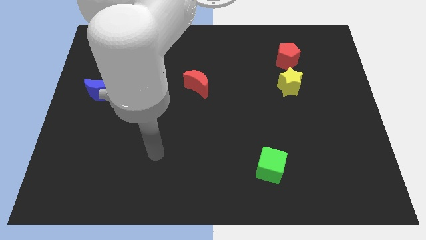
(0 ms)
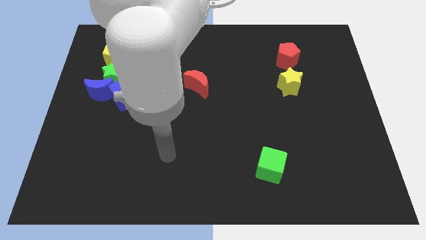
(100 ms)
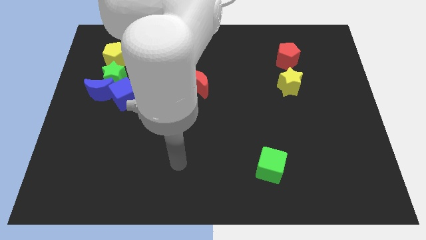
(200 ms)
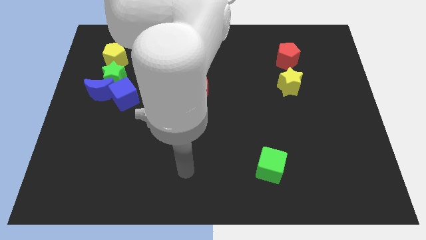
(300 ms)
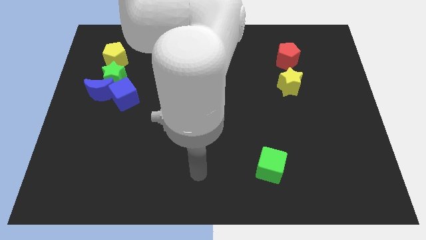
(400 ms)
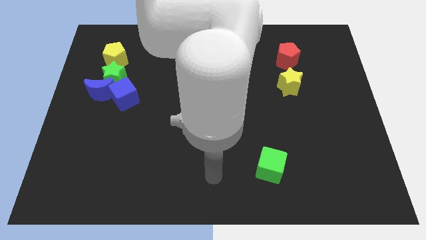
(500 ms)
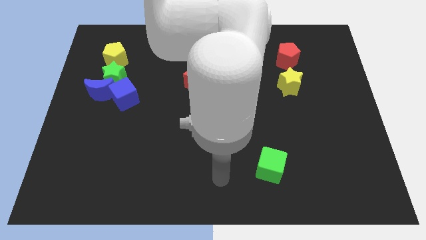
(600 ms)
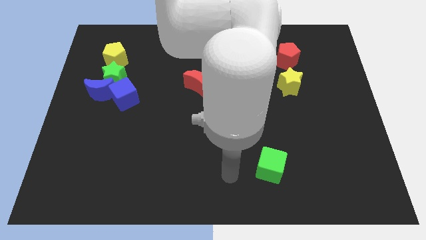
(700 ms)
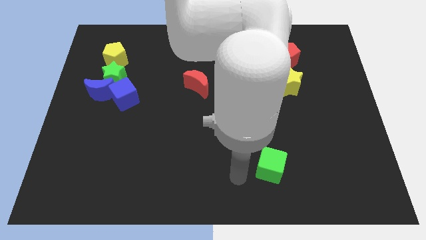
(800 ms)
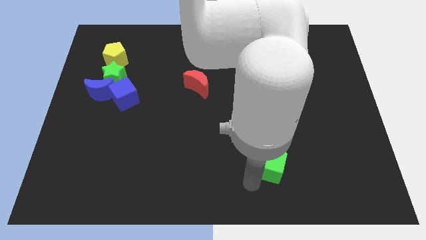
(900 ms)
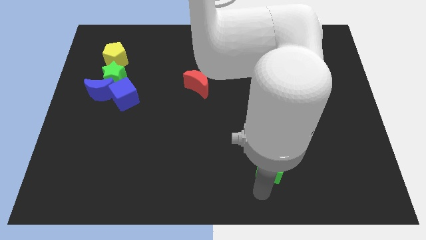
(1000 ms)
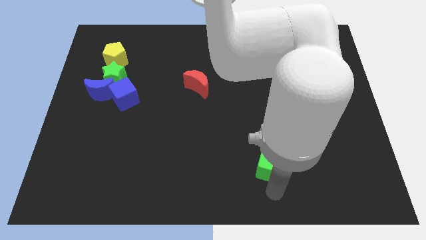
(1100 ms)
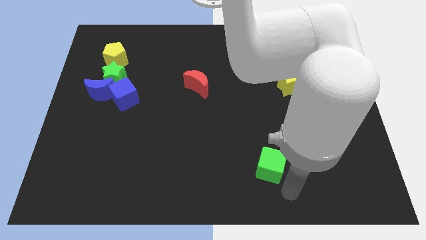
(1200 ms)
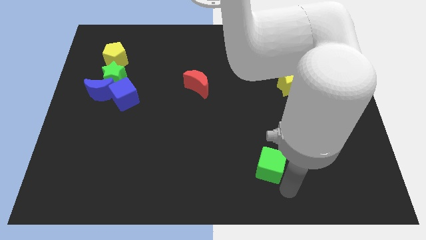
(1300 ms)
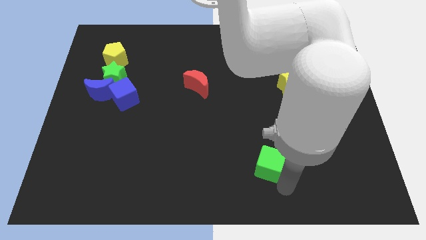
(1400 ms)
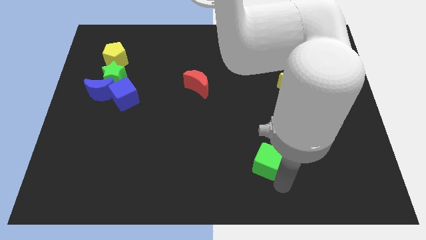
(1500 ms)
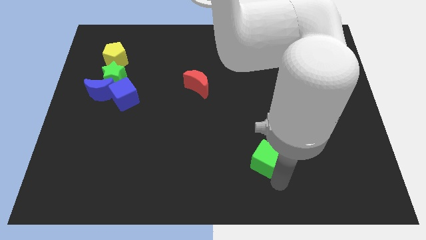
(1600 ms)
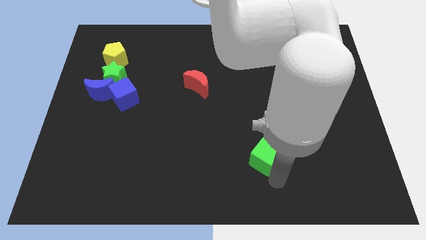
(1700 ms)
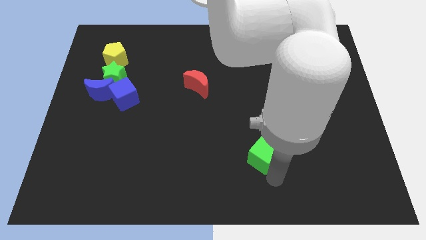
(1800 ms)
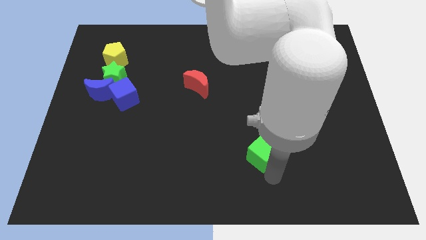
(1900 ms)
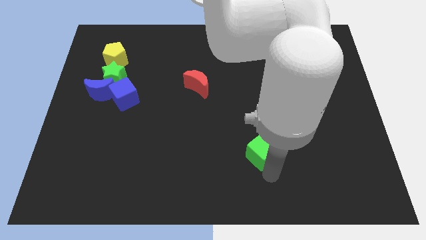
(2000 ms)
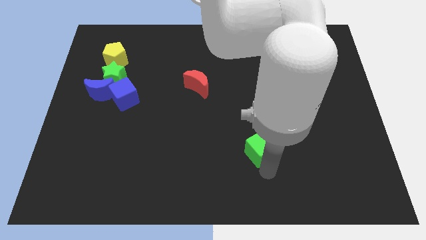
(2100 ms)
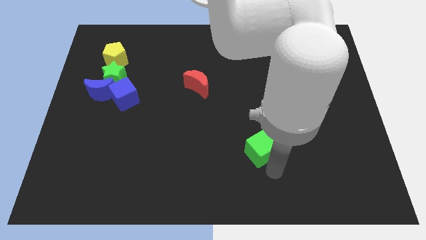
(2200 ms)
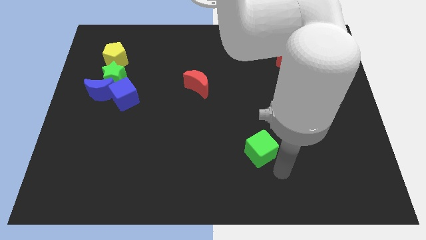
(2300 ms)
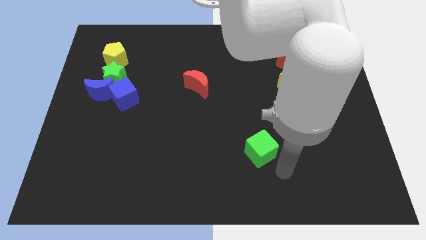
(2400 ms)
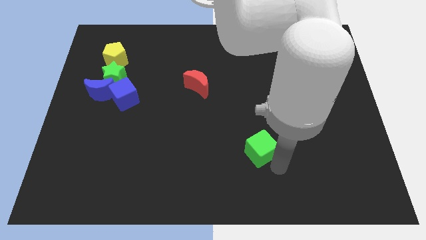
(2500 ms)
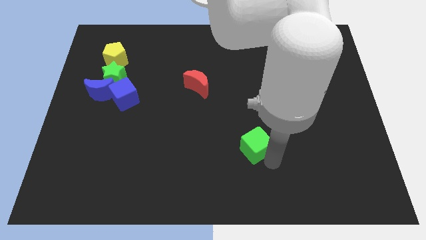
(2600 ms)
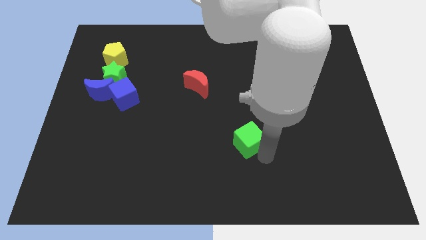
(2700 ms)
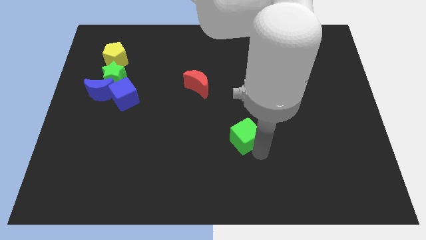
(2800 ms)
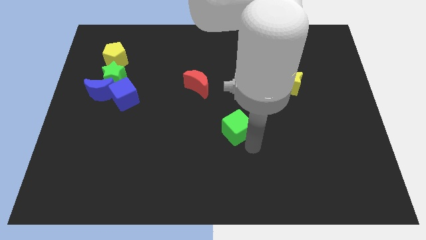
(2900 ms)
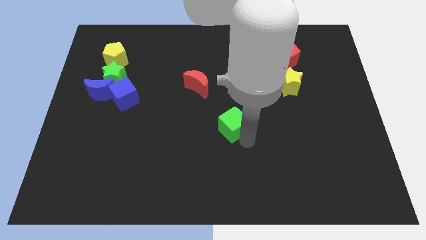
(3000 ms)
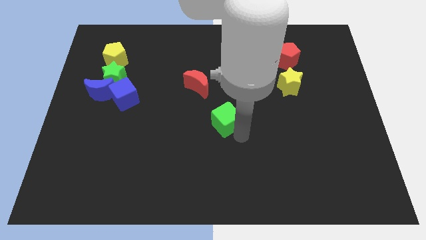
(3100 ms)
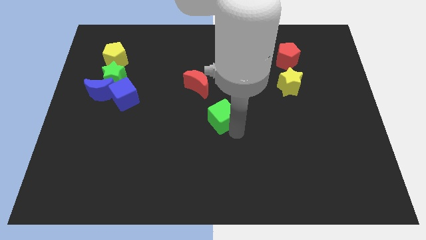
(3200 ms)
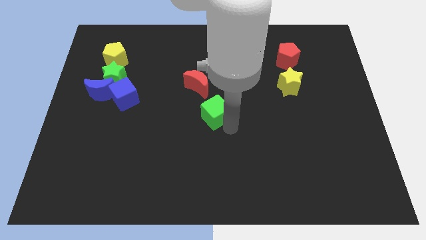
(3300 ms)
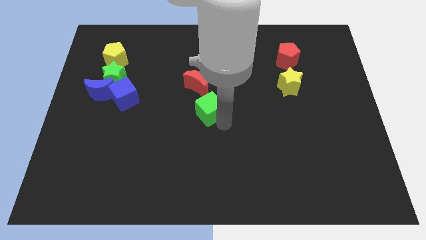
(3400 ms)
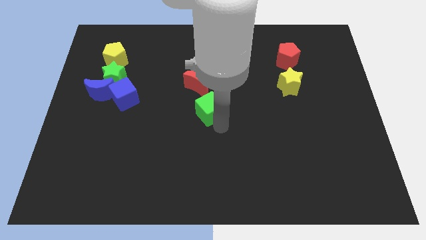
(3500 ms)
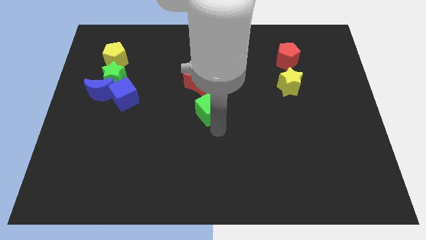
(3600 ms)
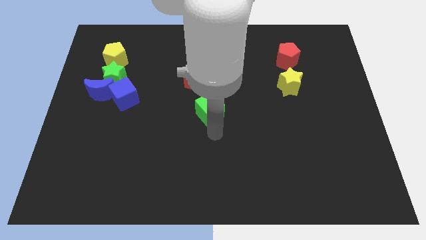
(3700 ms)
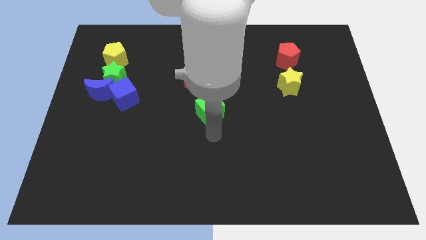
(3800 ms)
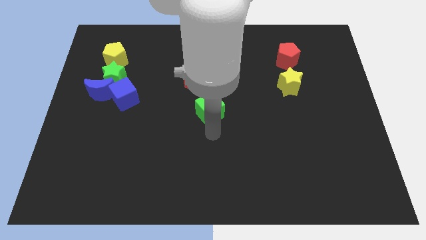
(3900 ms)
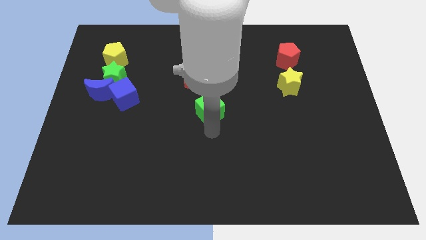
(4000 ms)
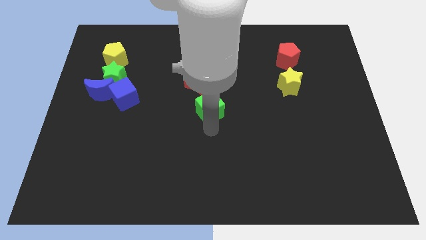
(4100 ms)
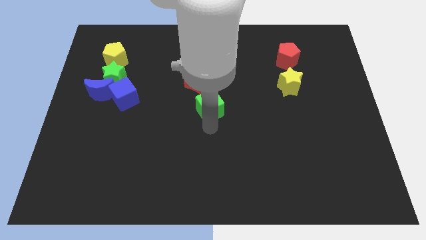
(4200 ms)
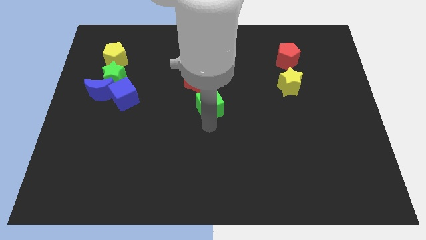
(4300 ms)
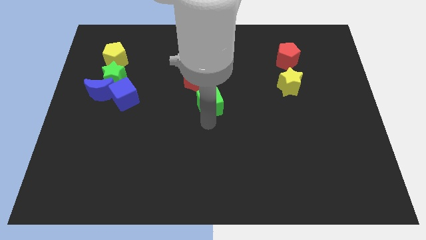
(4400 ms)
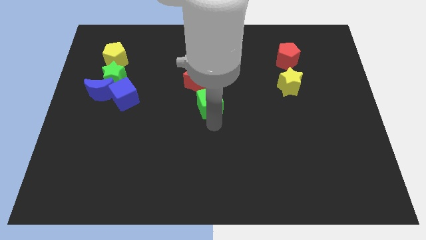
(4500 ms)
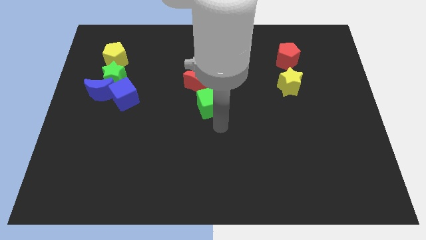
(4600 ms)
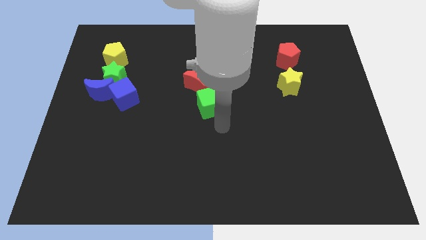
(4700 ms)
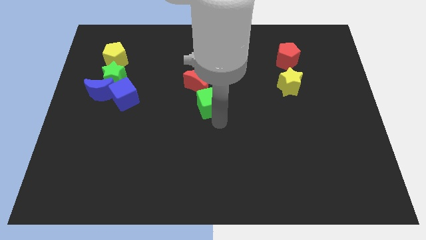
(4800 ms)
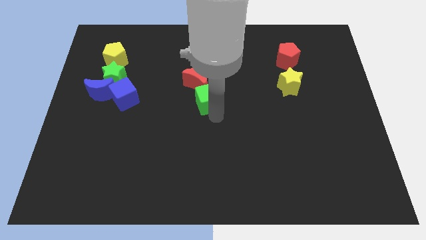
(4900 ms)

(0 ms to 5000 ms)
put the green cube to the red moon

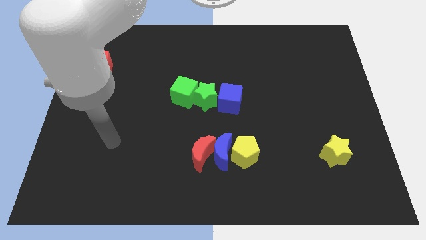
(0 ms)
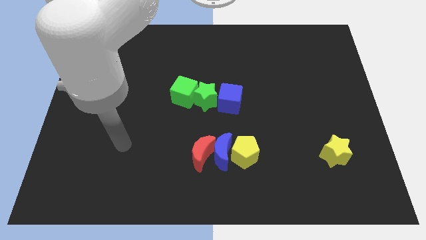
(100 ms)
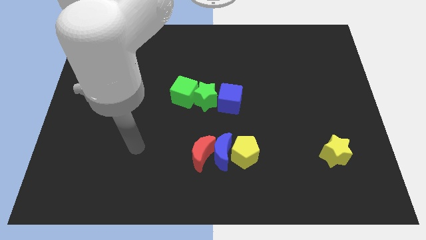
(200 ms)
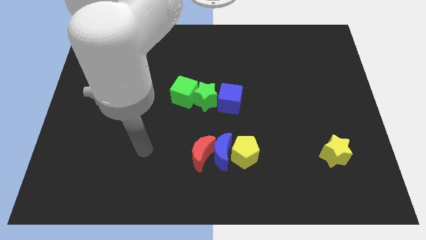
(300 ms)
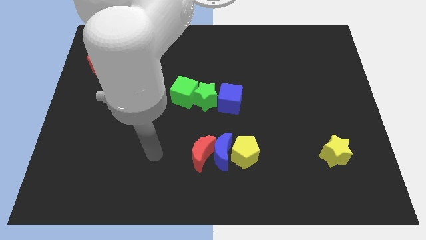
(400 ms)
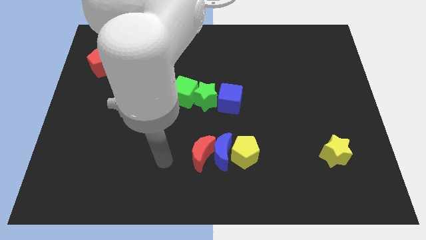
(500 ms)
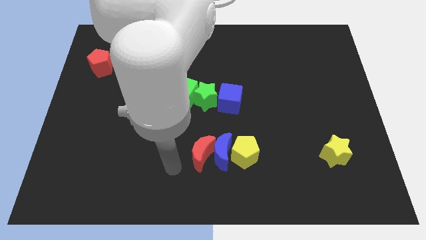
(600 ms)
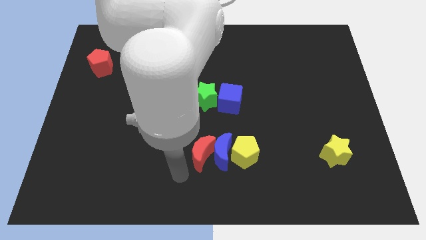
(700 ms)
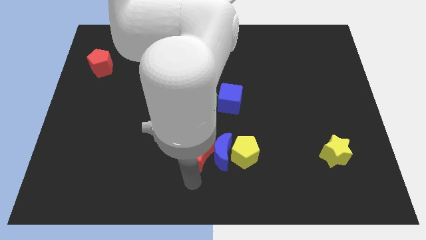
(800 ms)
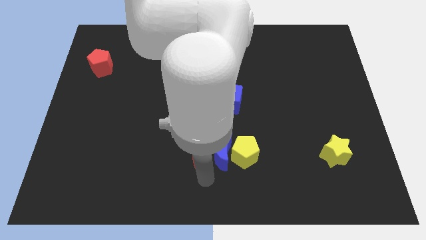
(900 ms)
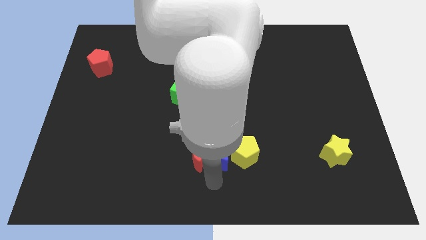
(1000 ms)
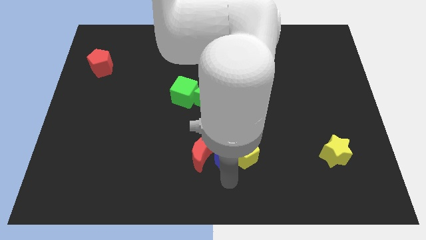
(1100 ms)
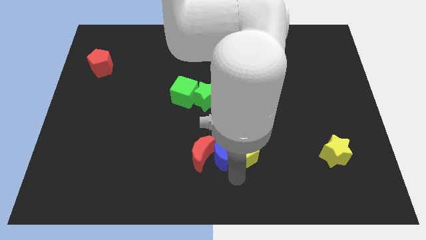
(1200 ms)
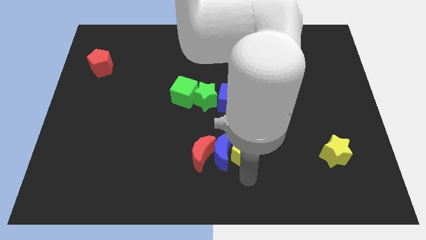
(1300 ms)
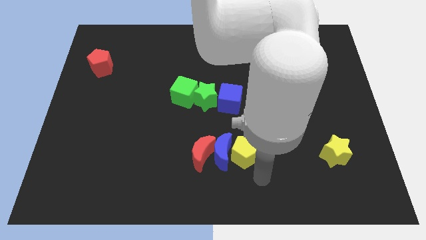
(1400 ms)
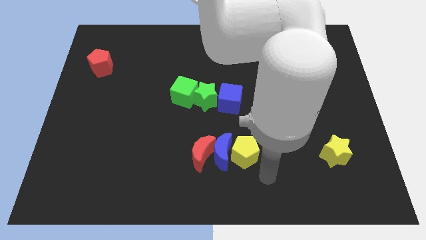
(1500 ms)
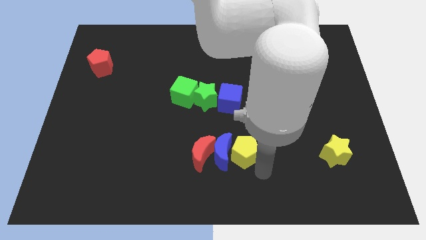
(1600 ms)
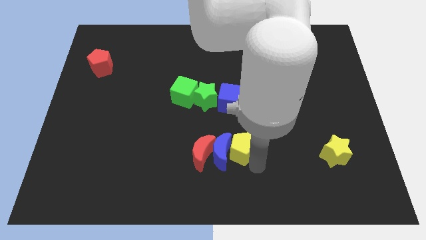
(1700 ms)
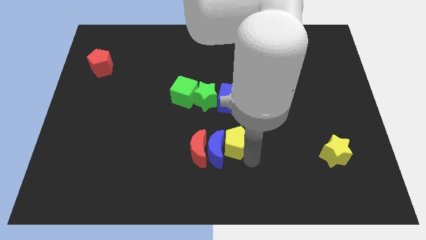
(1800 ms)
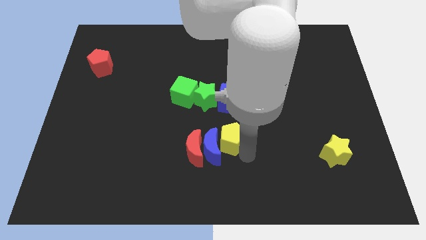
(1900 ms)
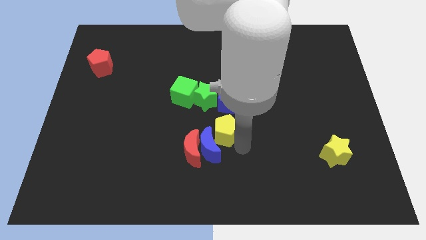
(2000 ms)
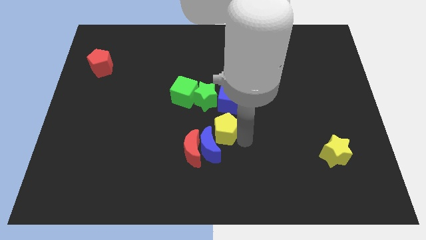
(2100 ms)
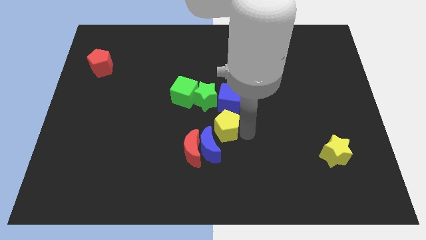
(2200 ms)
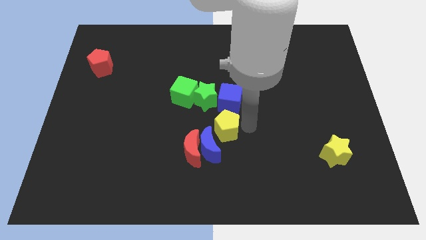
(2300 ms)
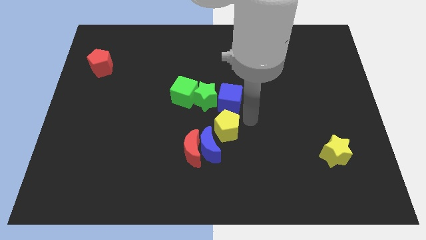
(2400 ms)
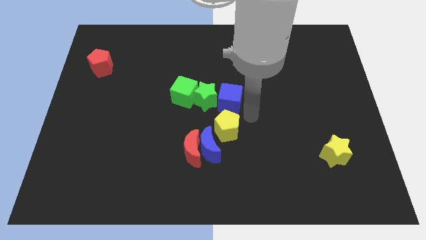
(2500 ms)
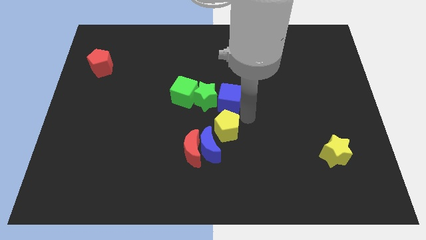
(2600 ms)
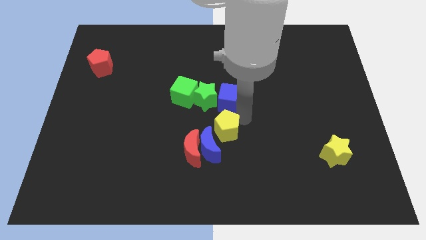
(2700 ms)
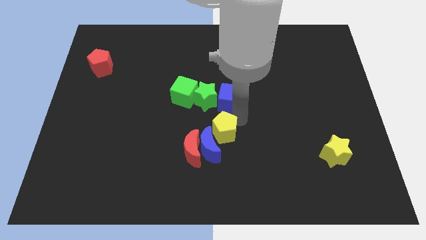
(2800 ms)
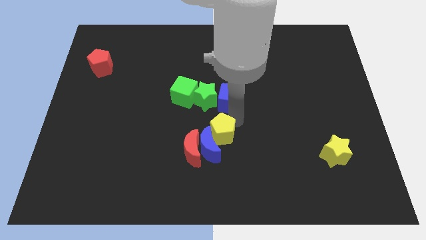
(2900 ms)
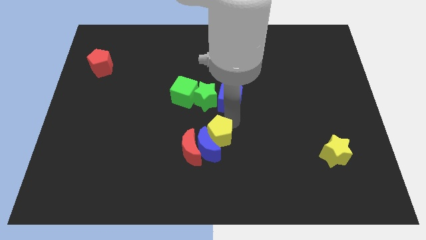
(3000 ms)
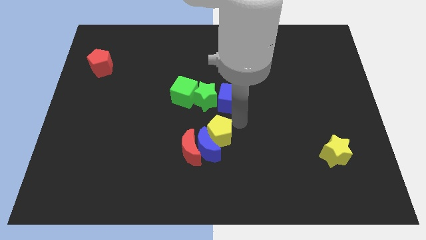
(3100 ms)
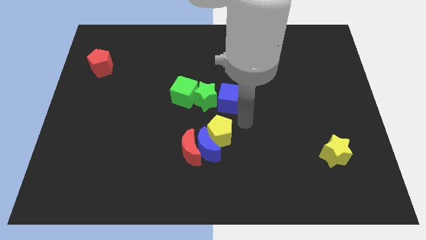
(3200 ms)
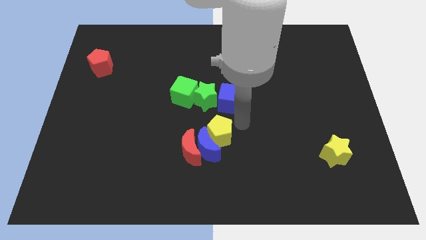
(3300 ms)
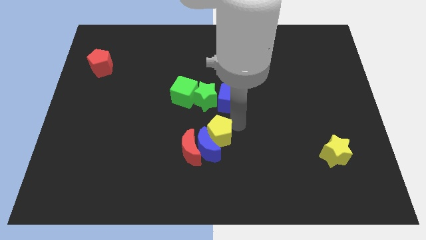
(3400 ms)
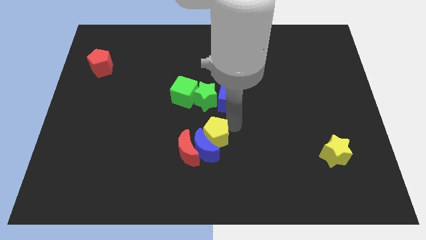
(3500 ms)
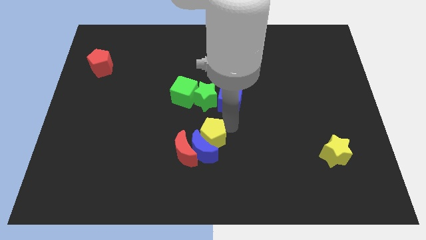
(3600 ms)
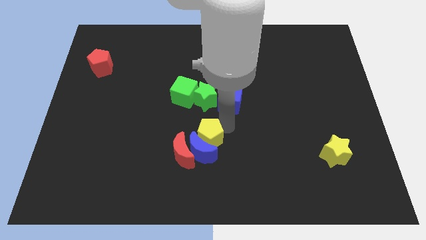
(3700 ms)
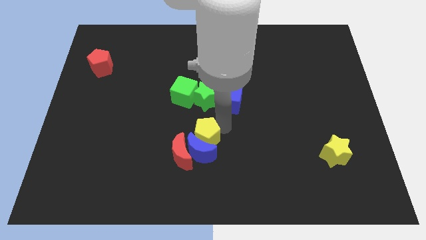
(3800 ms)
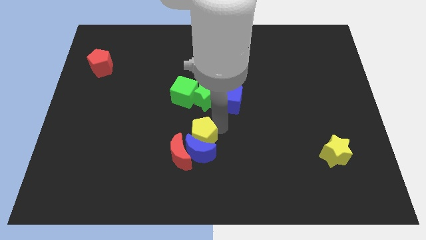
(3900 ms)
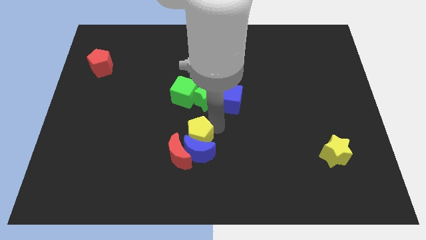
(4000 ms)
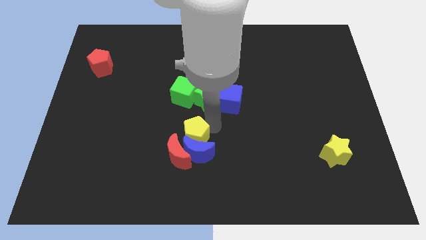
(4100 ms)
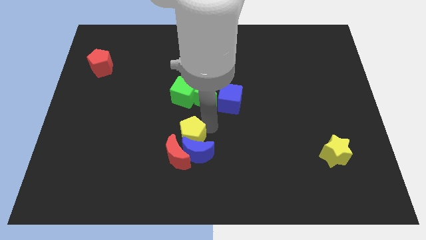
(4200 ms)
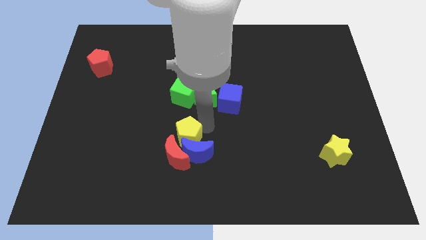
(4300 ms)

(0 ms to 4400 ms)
slide the yellow pentagon next to the red moon
